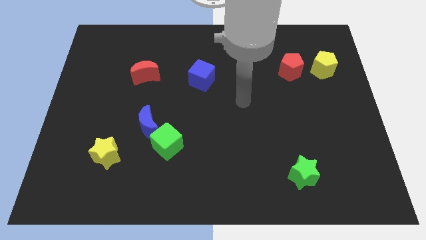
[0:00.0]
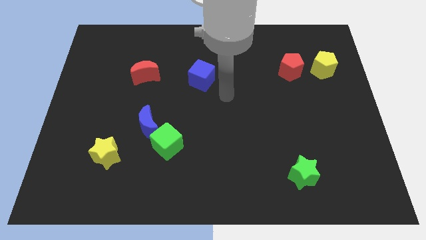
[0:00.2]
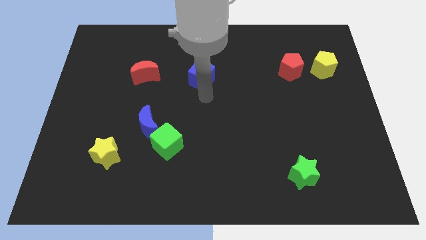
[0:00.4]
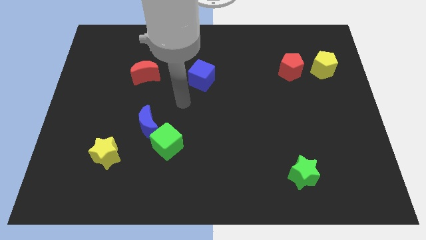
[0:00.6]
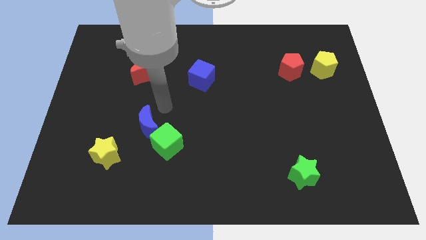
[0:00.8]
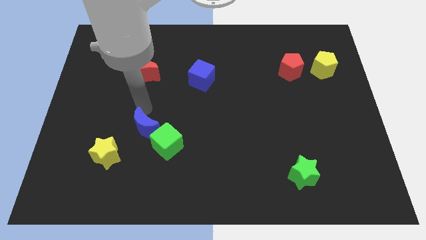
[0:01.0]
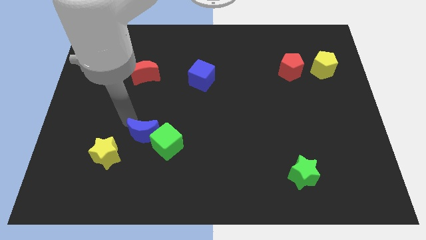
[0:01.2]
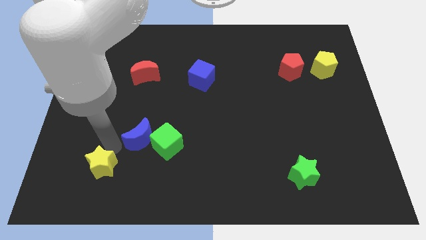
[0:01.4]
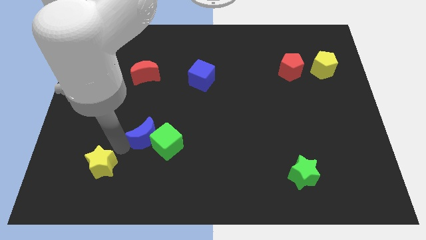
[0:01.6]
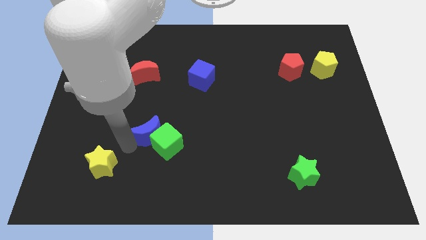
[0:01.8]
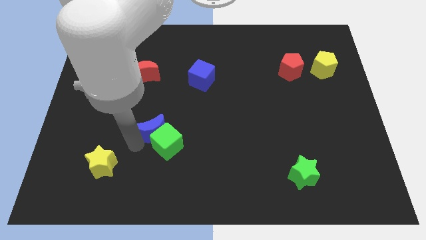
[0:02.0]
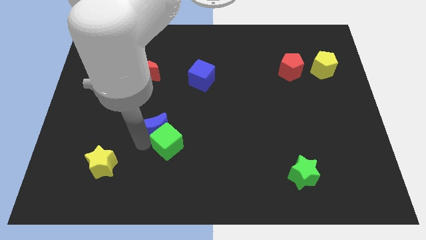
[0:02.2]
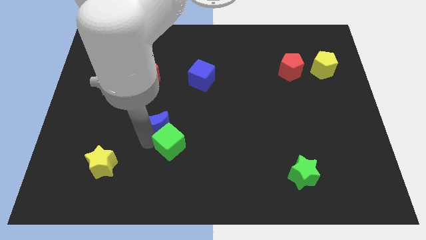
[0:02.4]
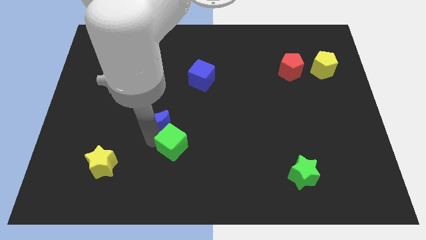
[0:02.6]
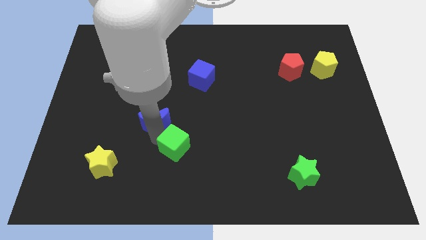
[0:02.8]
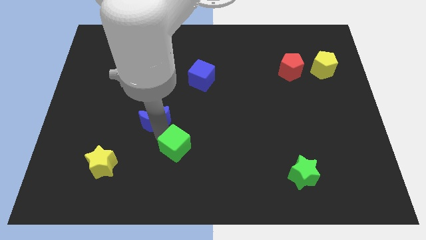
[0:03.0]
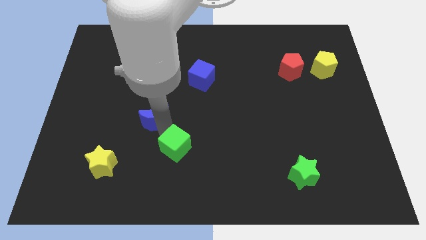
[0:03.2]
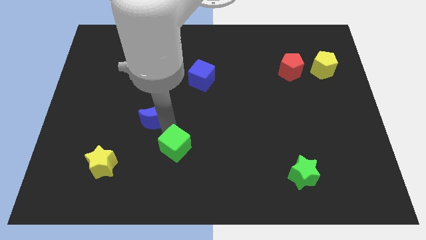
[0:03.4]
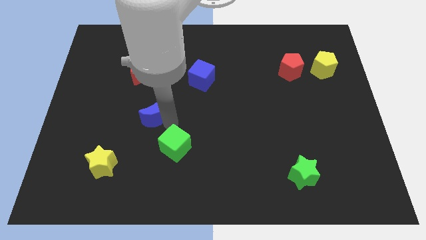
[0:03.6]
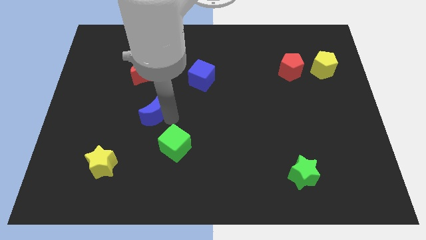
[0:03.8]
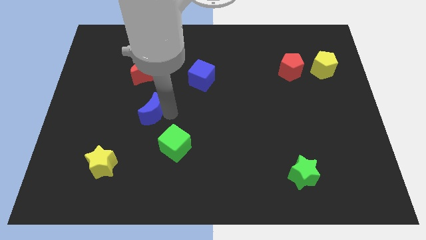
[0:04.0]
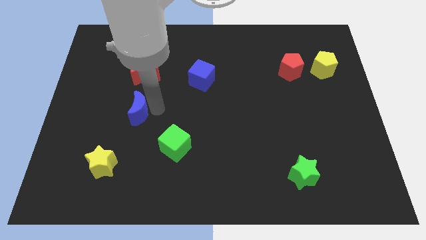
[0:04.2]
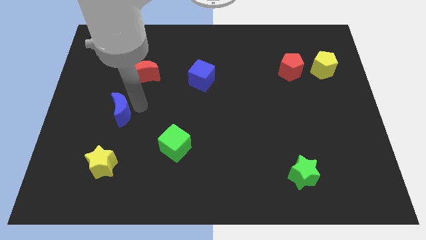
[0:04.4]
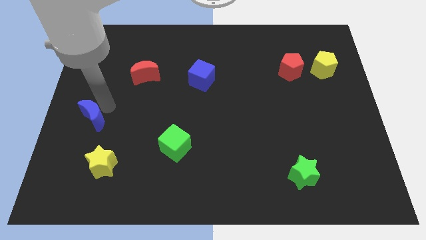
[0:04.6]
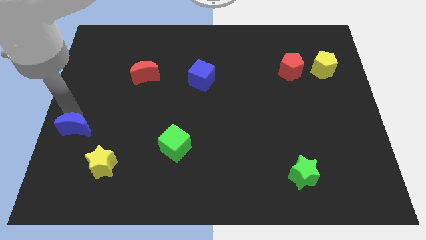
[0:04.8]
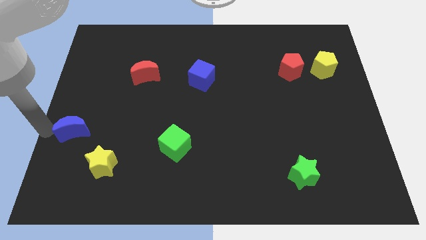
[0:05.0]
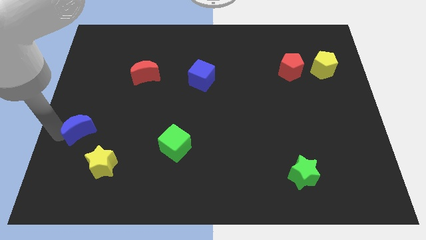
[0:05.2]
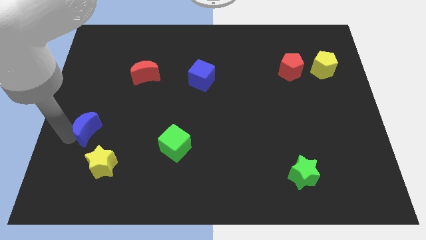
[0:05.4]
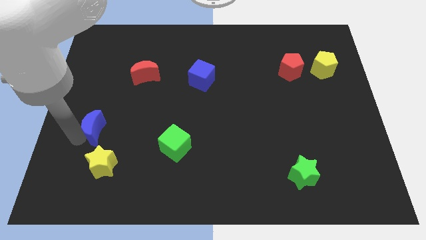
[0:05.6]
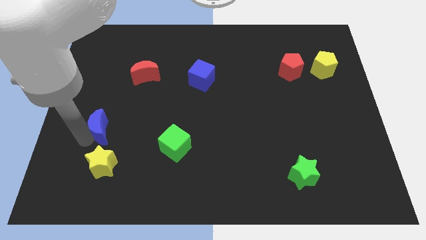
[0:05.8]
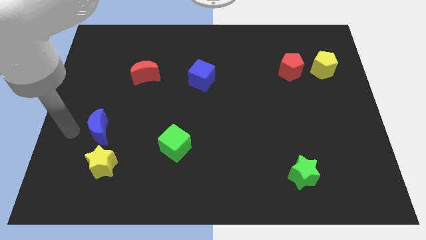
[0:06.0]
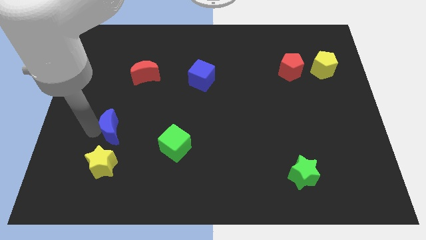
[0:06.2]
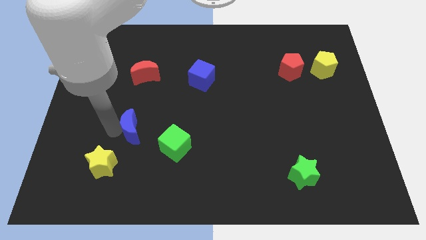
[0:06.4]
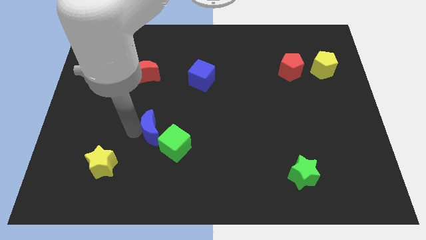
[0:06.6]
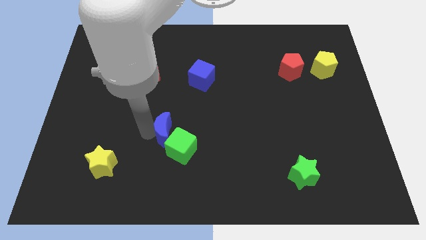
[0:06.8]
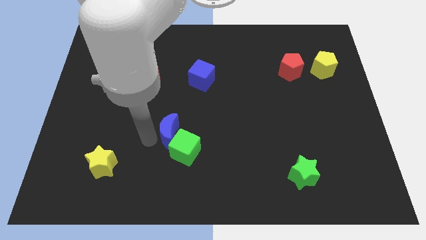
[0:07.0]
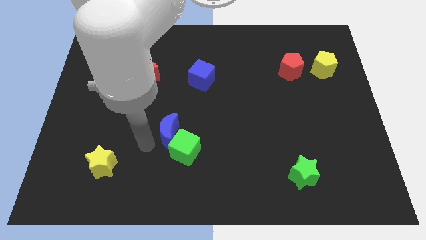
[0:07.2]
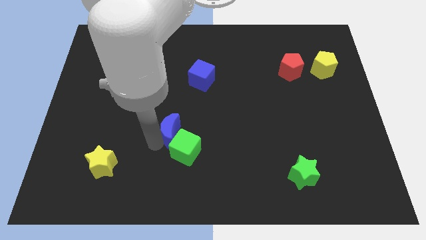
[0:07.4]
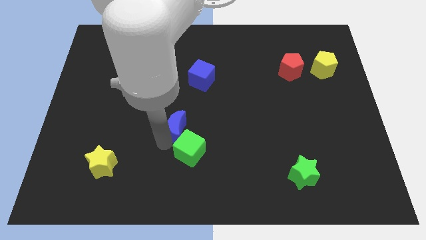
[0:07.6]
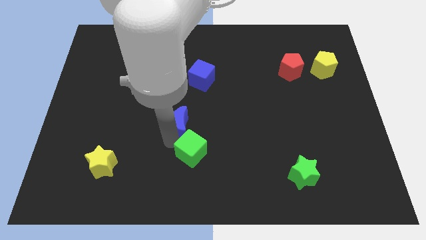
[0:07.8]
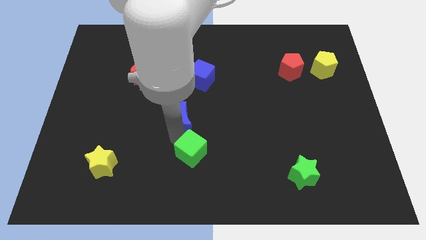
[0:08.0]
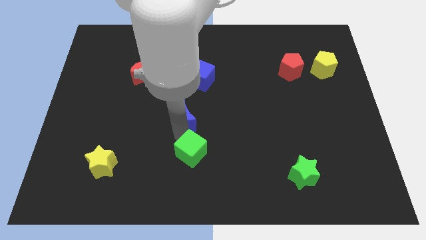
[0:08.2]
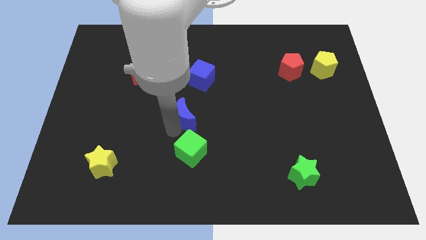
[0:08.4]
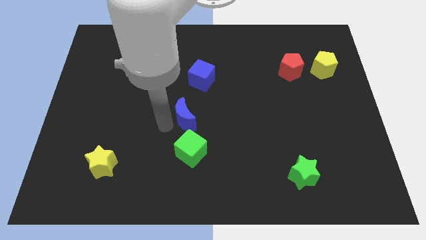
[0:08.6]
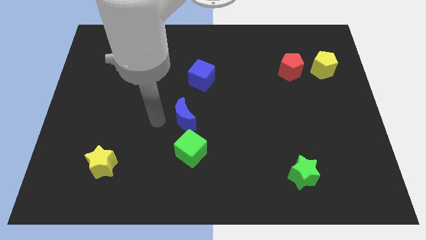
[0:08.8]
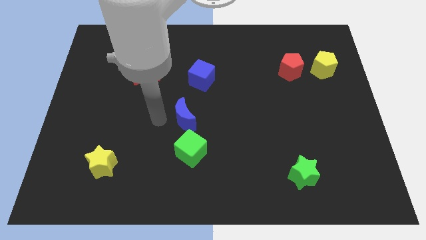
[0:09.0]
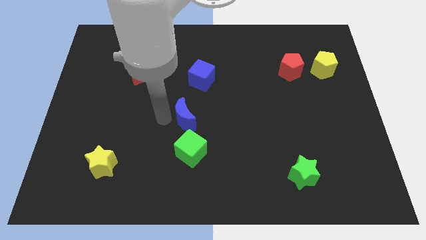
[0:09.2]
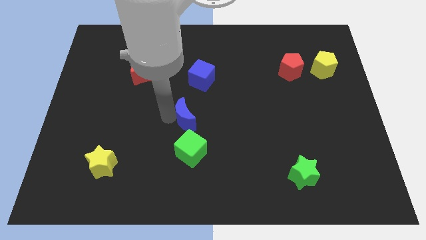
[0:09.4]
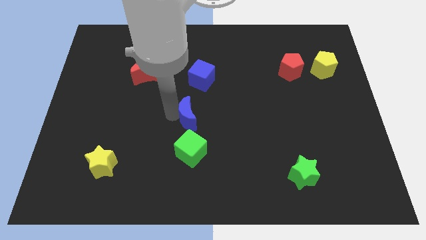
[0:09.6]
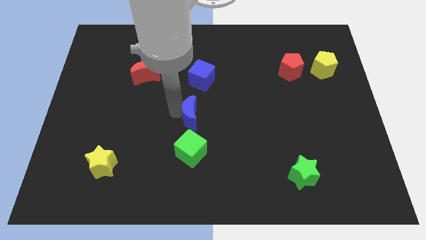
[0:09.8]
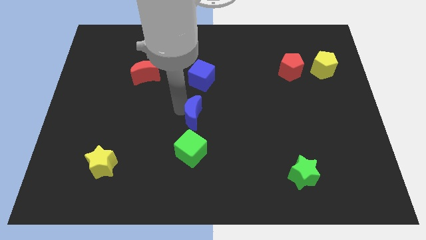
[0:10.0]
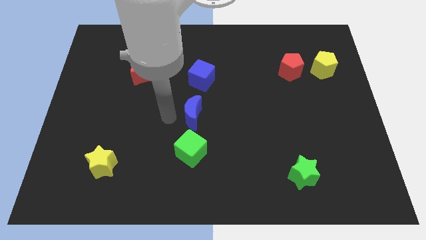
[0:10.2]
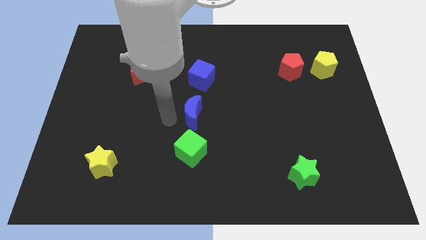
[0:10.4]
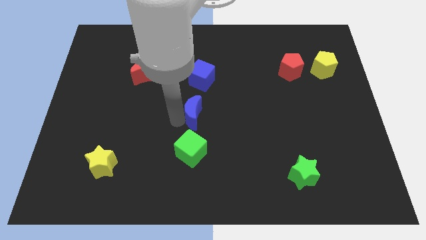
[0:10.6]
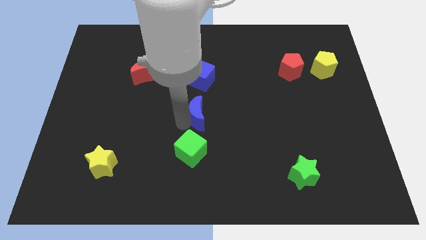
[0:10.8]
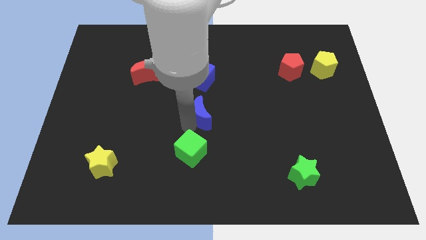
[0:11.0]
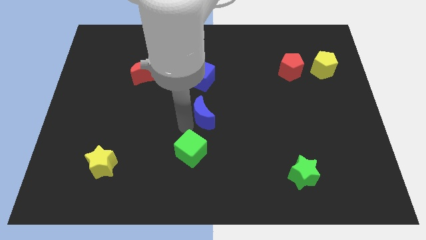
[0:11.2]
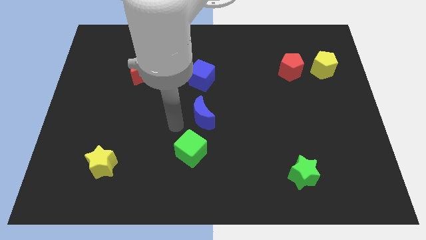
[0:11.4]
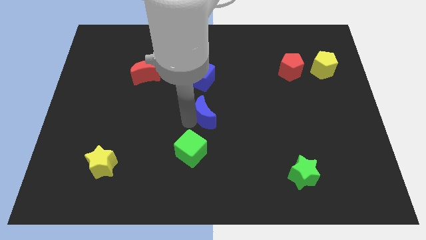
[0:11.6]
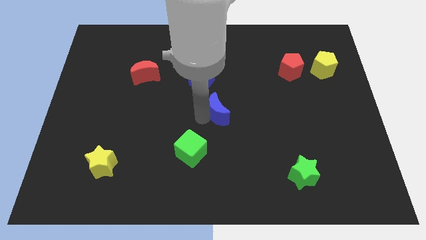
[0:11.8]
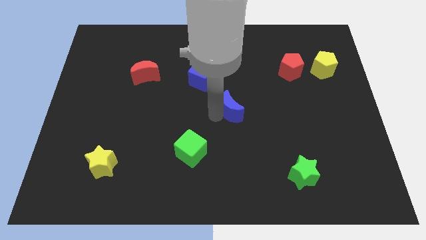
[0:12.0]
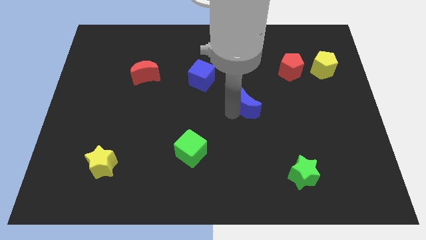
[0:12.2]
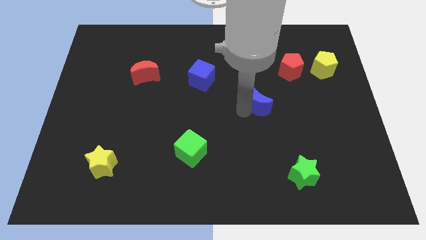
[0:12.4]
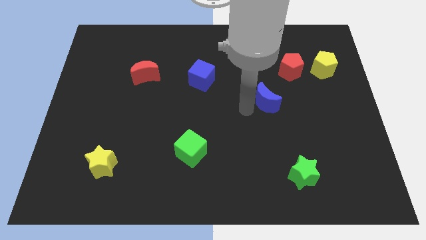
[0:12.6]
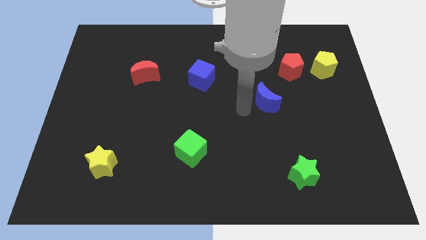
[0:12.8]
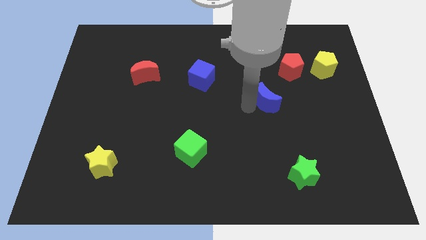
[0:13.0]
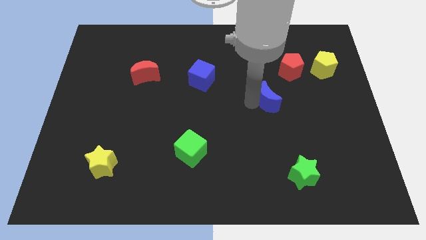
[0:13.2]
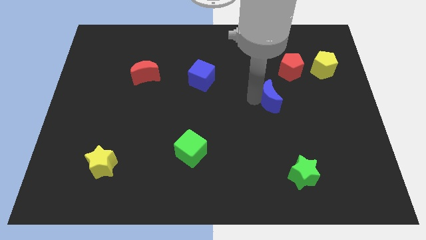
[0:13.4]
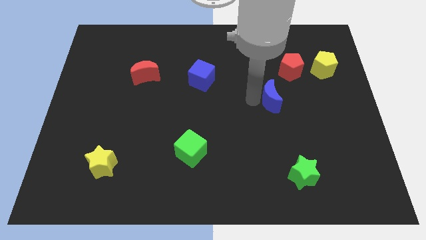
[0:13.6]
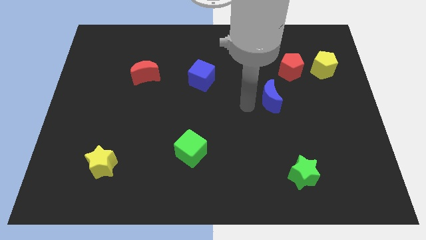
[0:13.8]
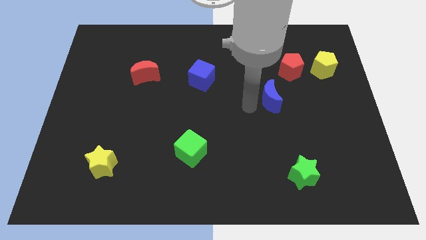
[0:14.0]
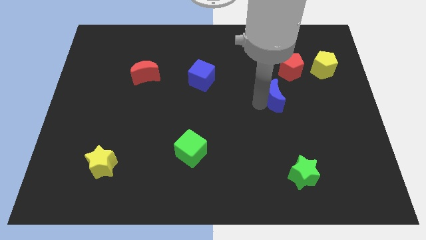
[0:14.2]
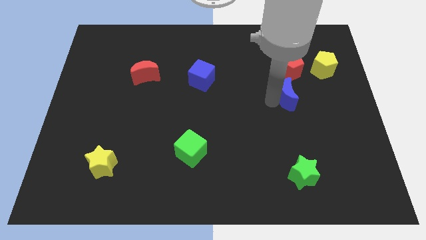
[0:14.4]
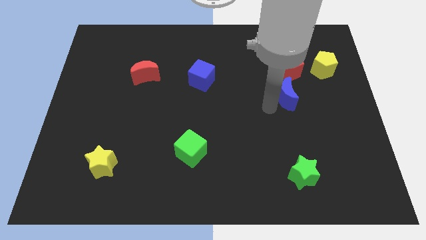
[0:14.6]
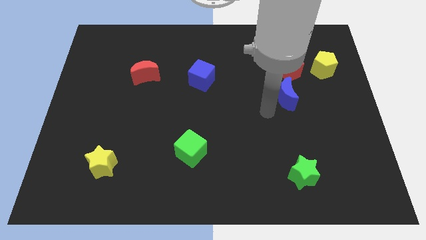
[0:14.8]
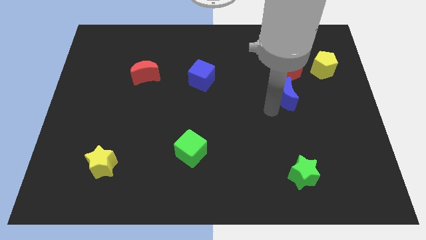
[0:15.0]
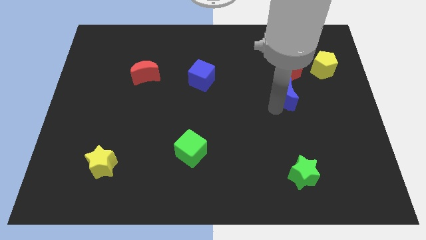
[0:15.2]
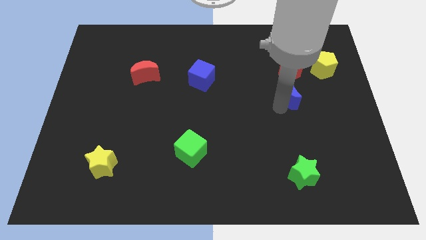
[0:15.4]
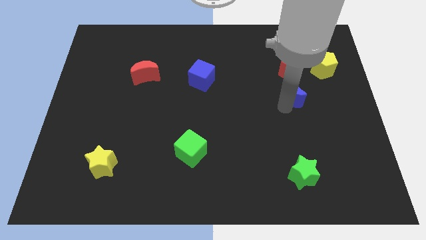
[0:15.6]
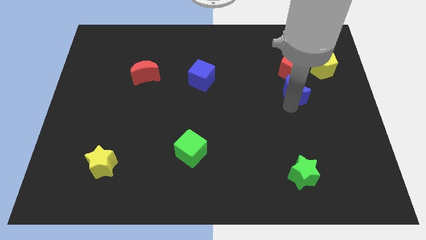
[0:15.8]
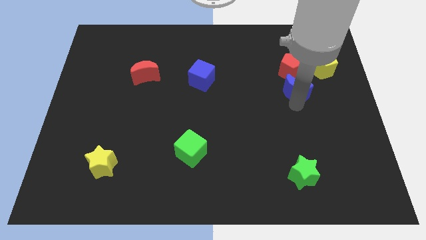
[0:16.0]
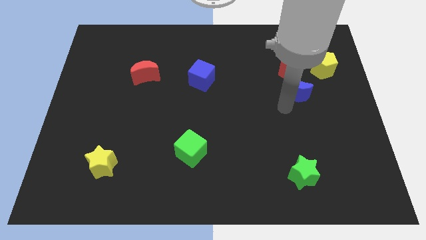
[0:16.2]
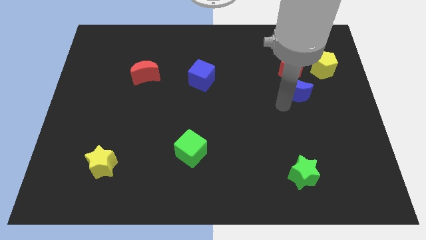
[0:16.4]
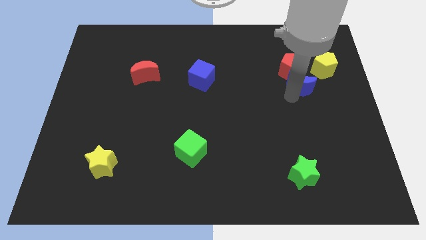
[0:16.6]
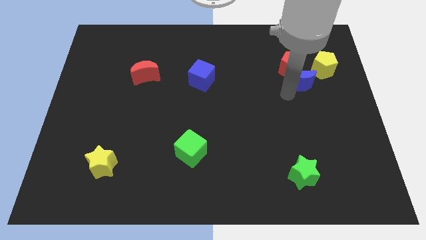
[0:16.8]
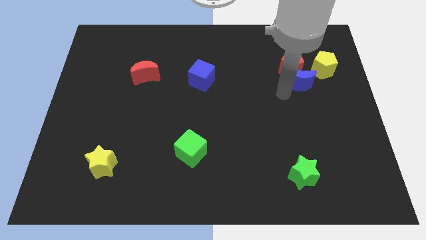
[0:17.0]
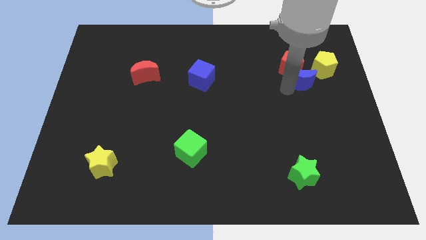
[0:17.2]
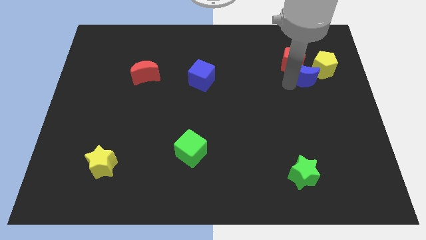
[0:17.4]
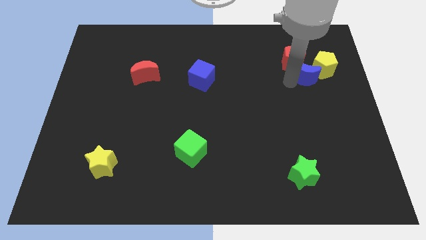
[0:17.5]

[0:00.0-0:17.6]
slide the blue moon next to the yellow pentagon
